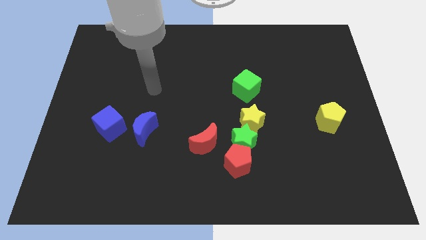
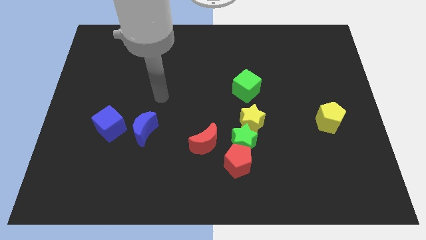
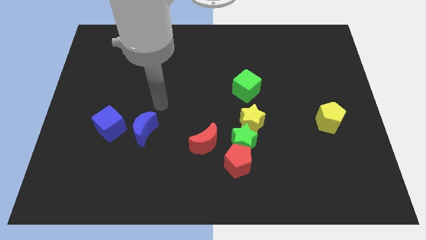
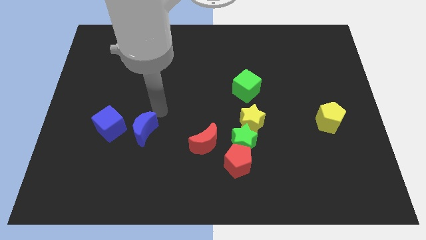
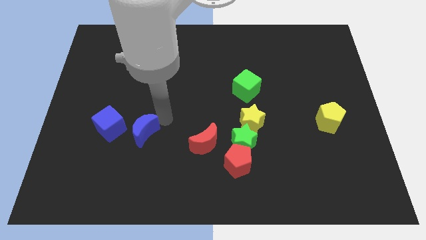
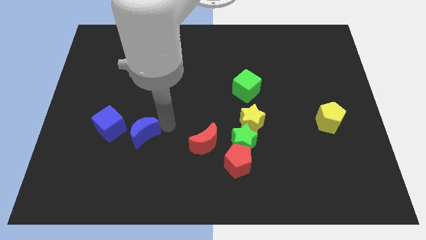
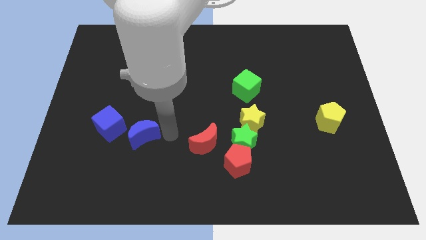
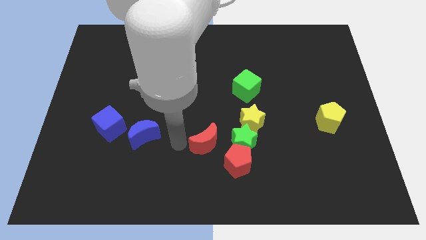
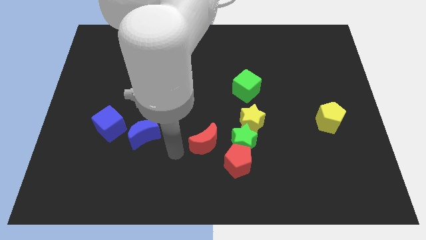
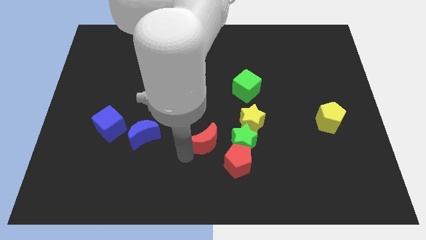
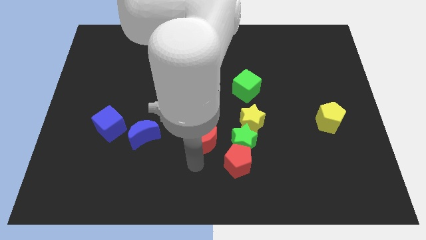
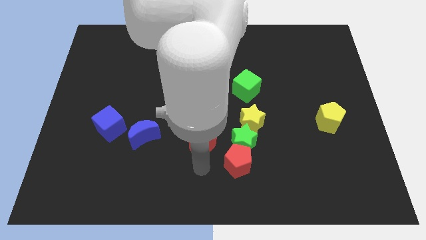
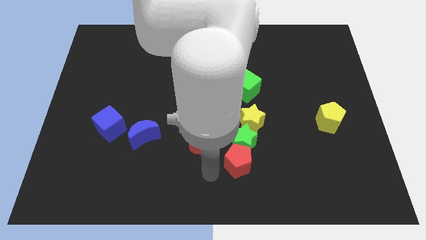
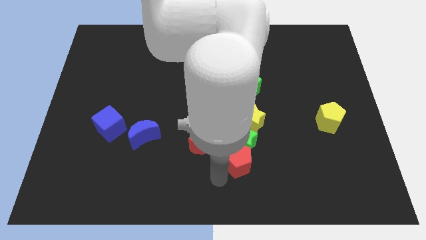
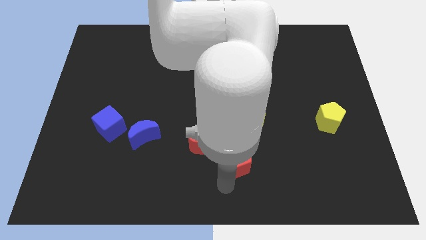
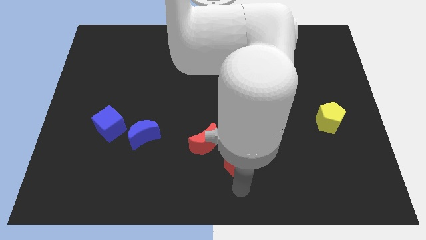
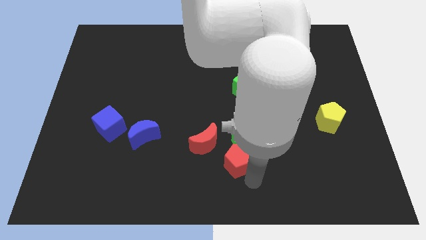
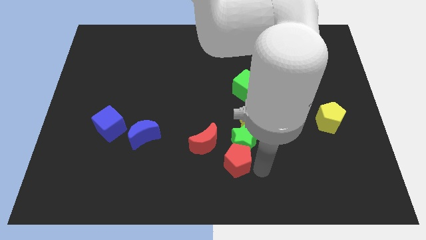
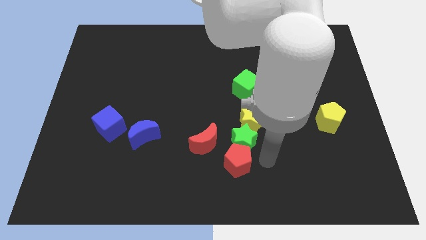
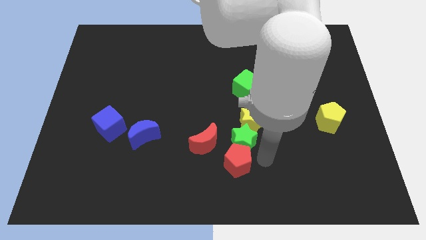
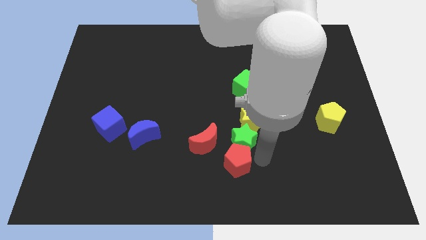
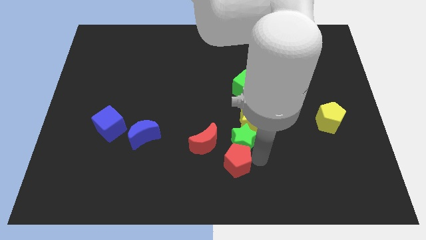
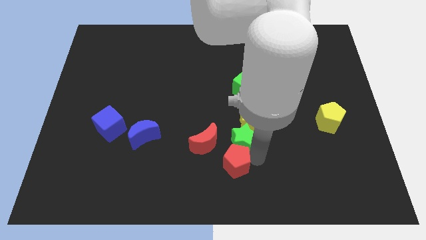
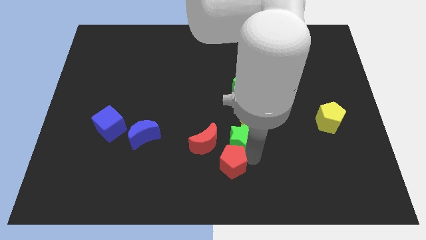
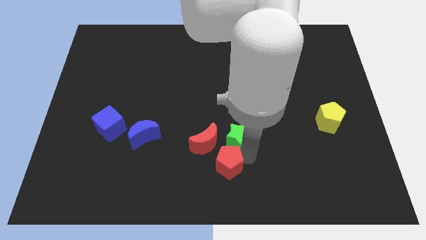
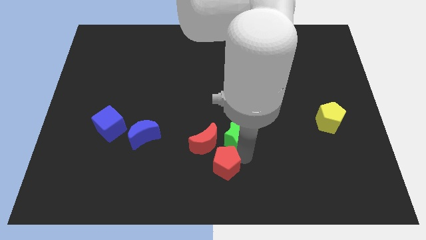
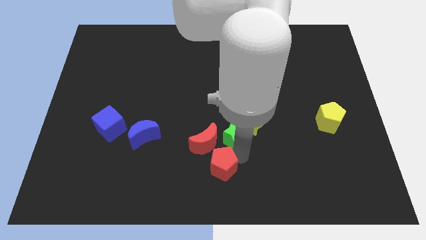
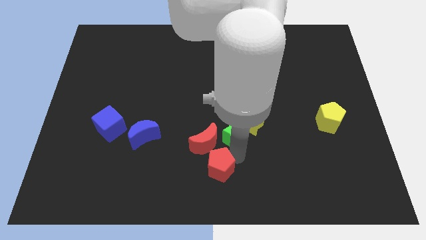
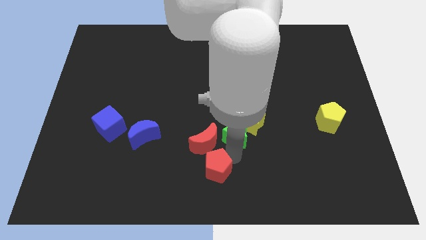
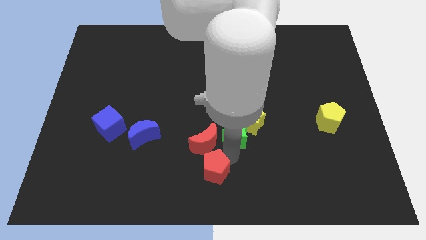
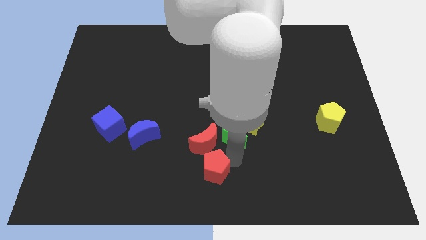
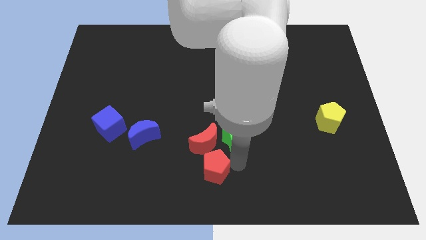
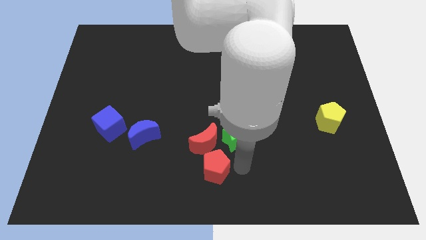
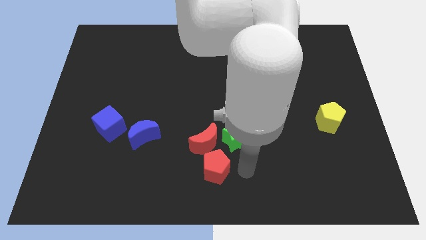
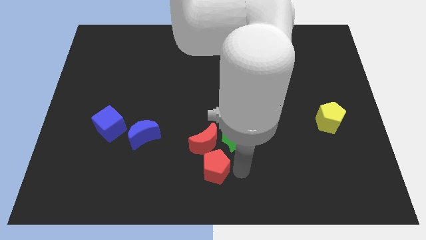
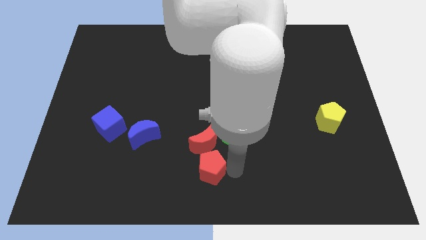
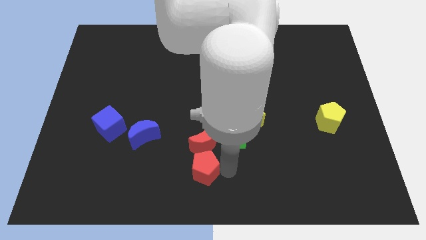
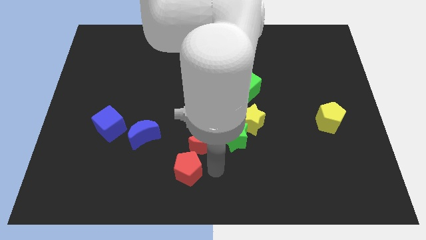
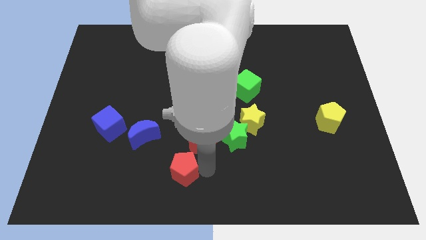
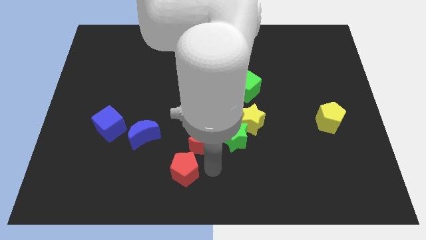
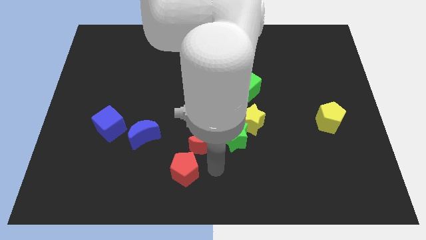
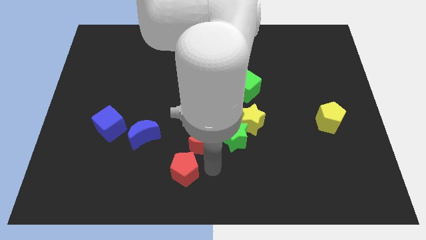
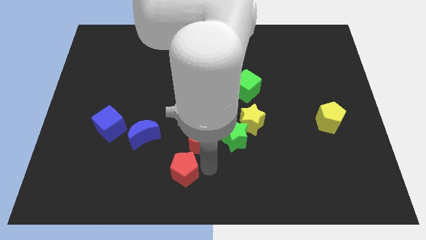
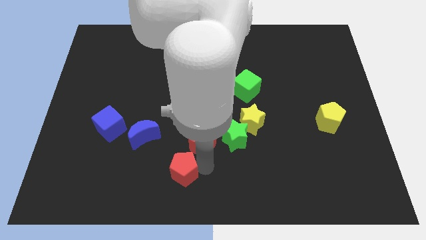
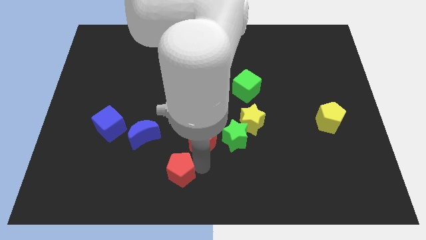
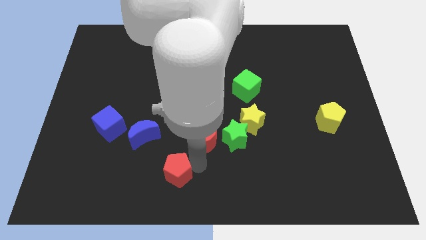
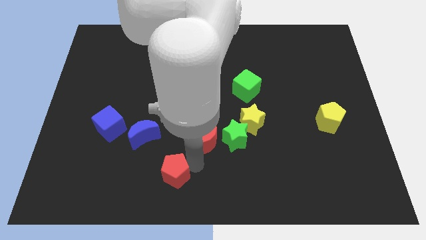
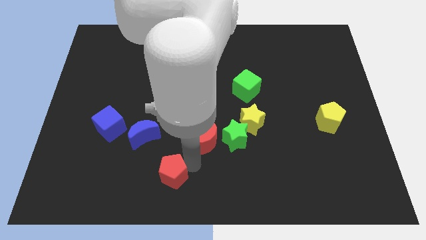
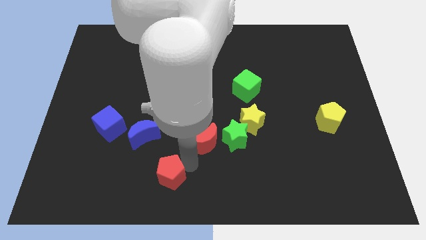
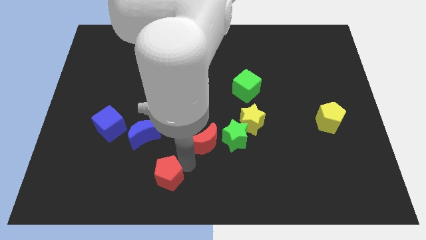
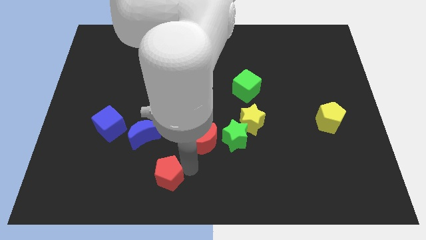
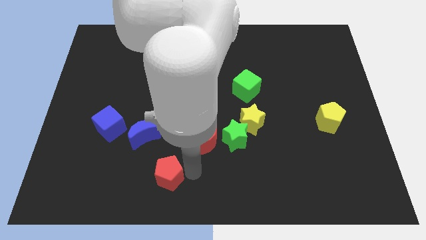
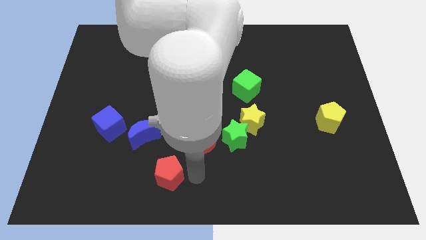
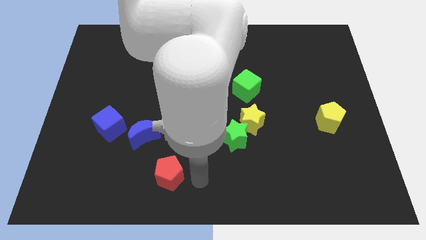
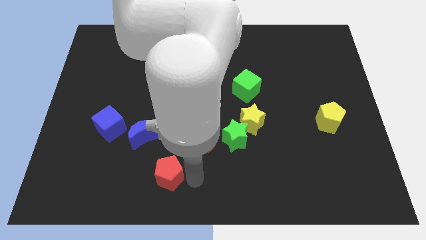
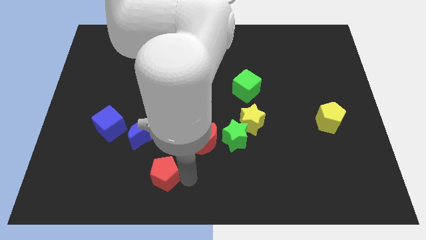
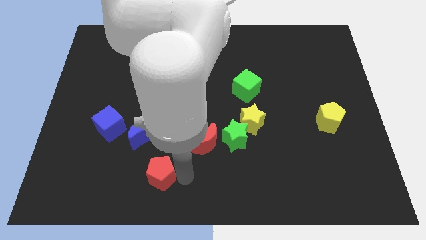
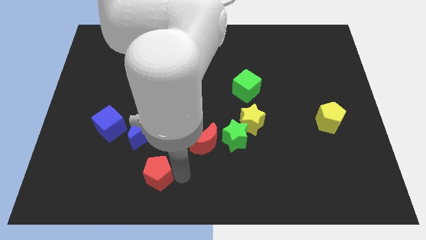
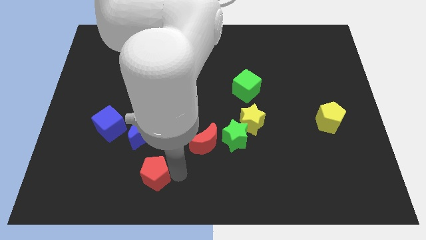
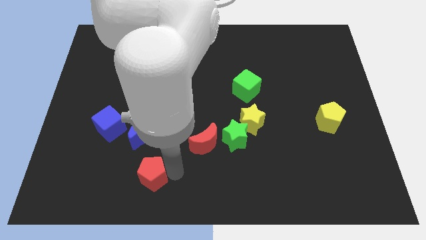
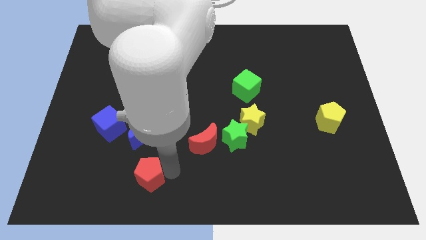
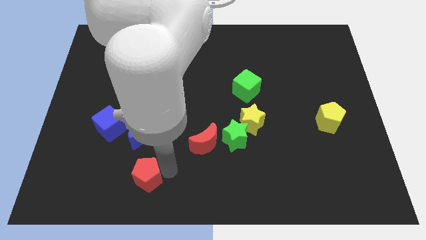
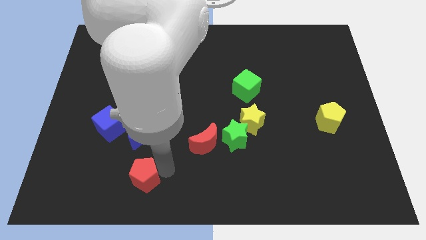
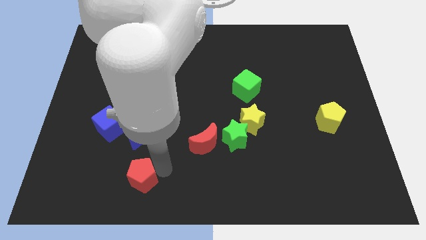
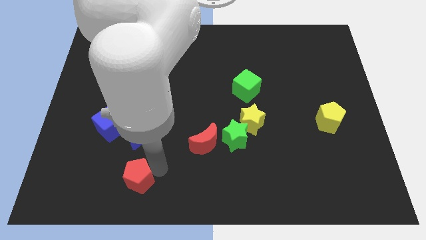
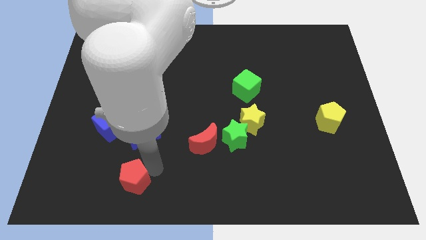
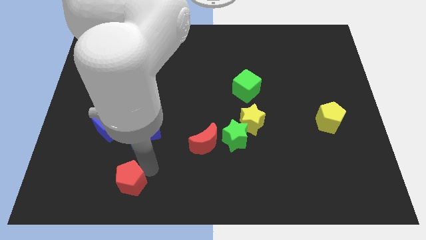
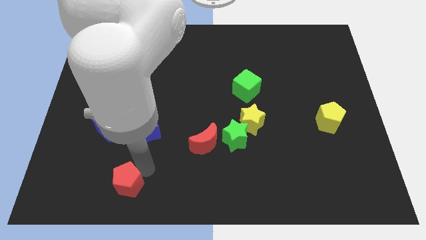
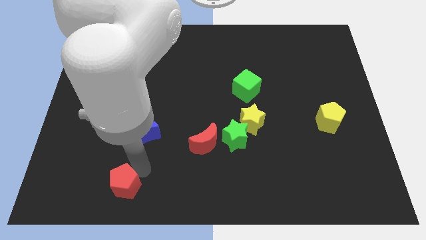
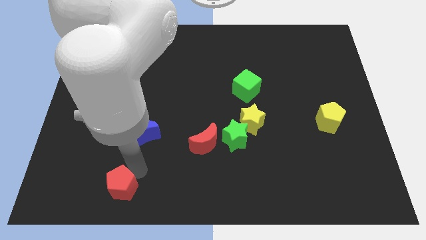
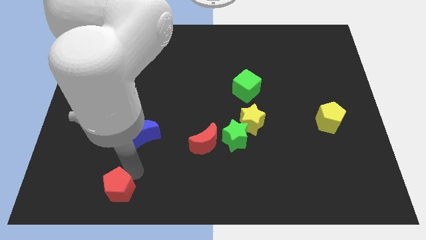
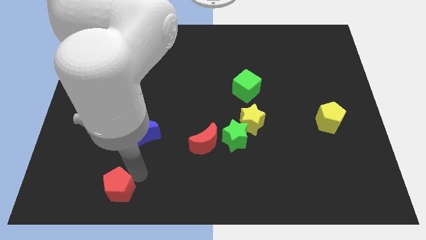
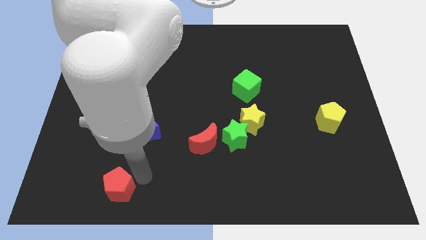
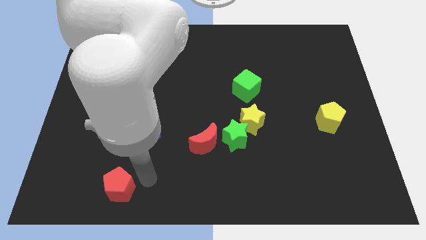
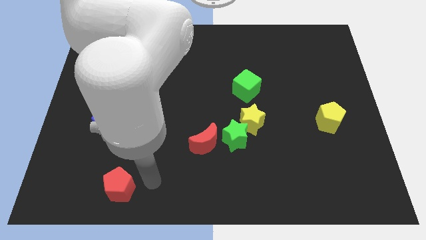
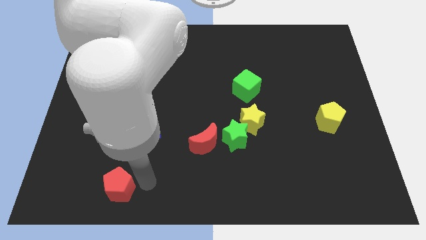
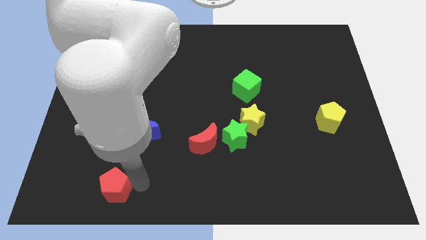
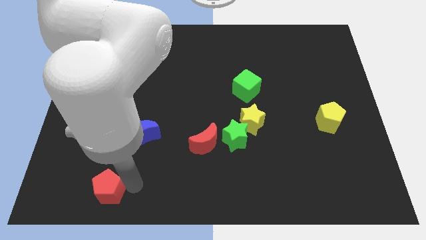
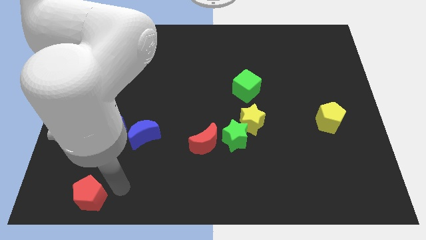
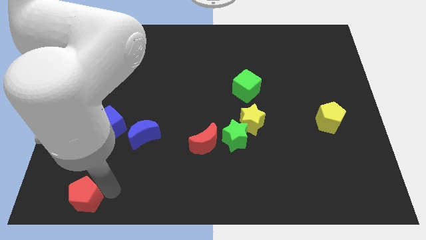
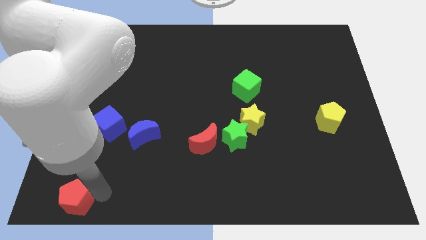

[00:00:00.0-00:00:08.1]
move the red pentagon to the bottom left corner
